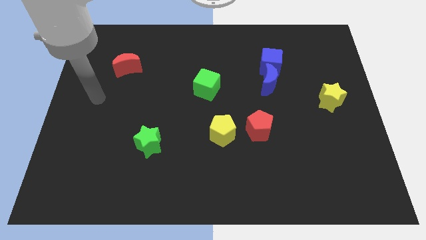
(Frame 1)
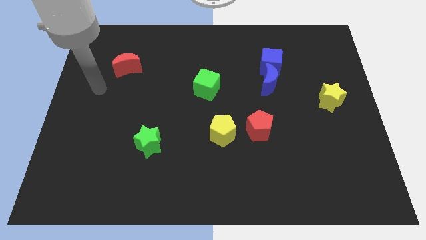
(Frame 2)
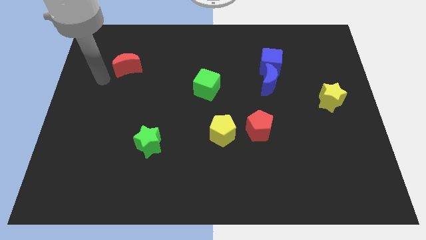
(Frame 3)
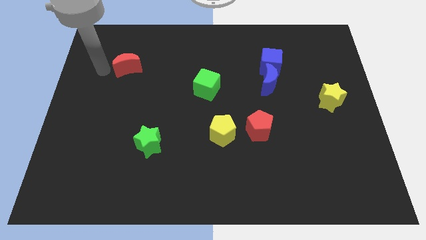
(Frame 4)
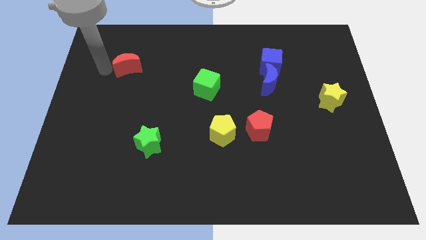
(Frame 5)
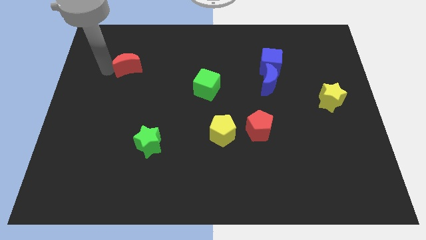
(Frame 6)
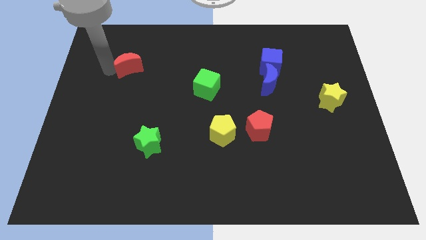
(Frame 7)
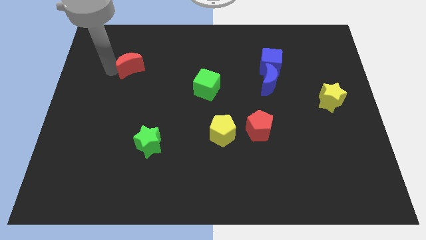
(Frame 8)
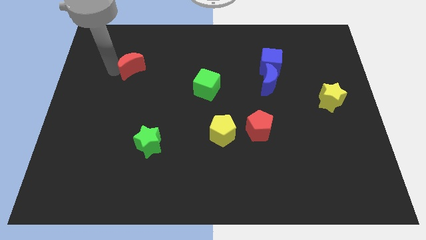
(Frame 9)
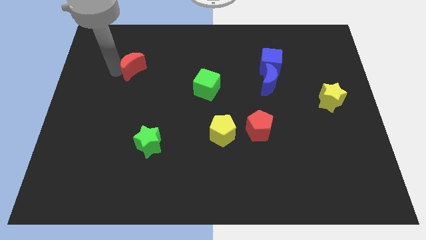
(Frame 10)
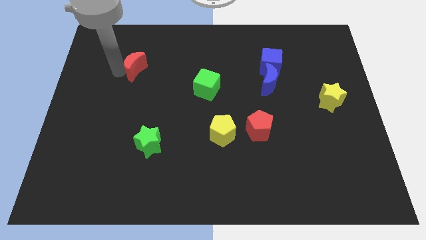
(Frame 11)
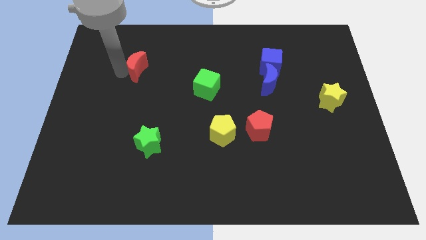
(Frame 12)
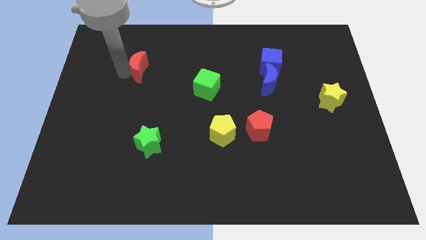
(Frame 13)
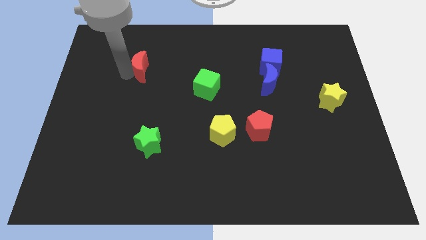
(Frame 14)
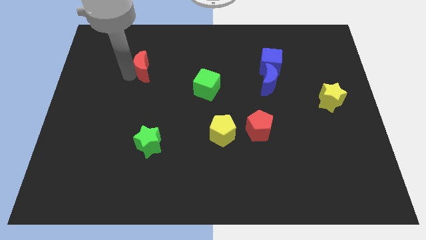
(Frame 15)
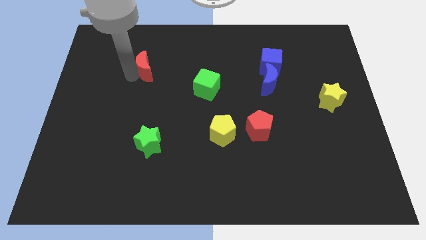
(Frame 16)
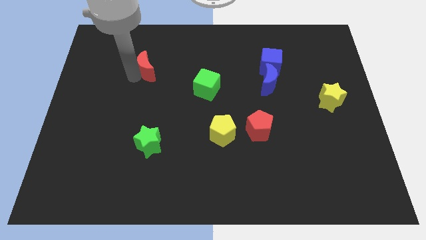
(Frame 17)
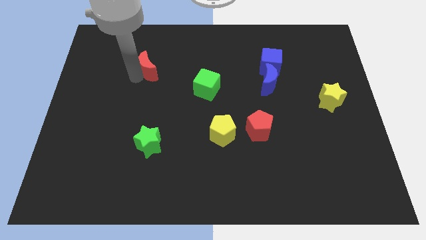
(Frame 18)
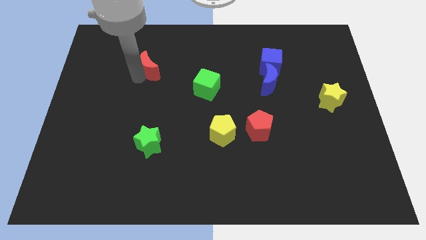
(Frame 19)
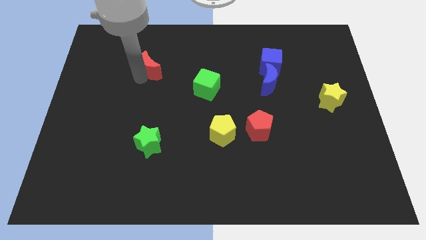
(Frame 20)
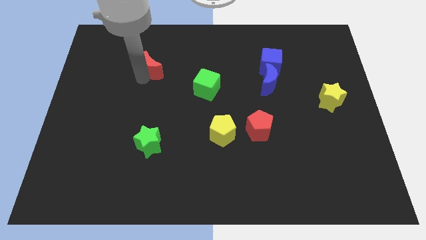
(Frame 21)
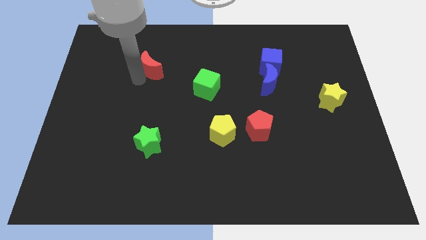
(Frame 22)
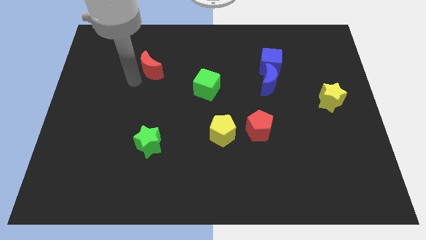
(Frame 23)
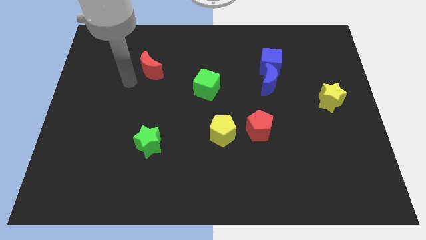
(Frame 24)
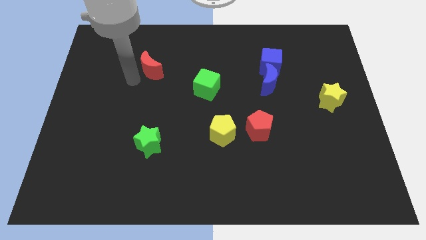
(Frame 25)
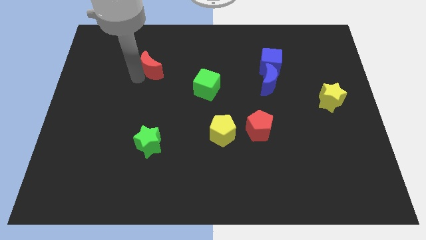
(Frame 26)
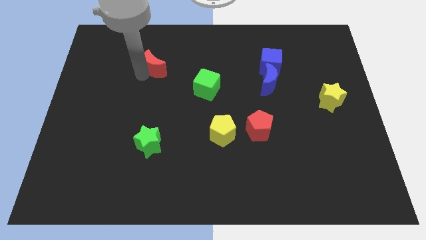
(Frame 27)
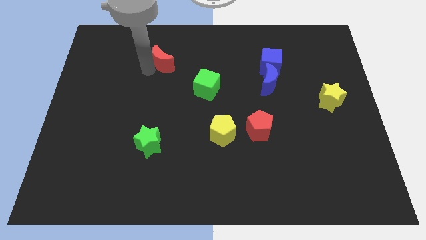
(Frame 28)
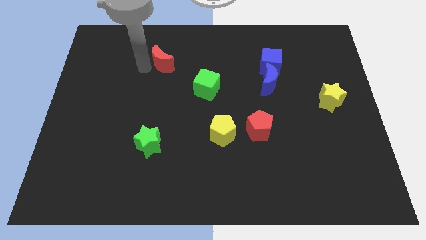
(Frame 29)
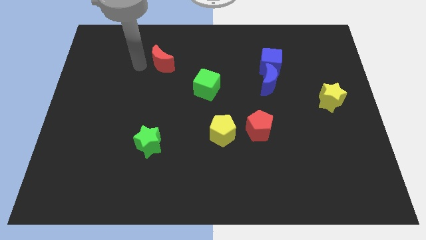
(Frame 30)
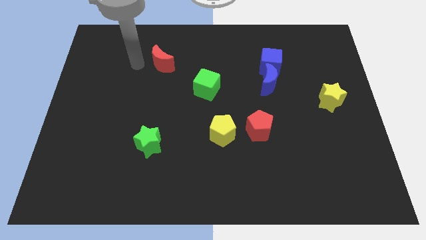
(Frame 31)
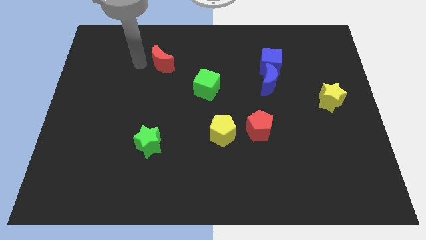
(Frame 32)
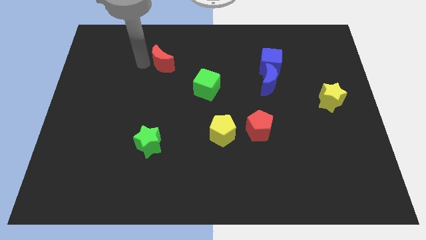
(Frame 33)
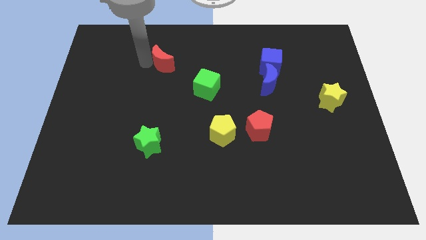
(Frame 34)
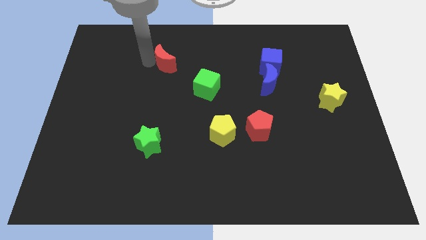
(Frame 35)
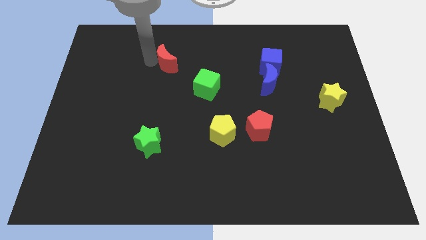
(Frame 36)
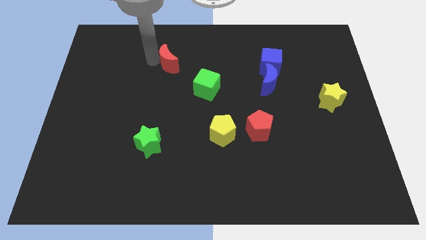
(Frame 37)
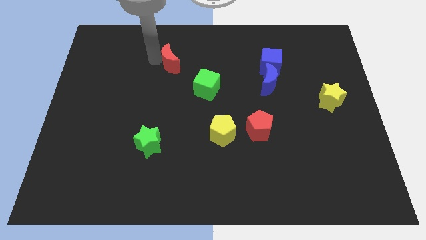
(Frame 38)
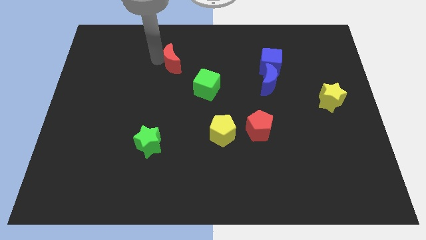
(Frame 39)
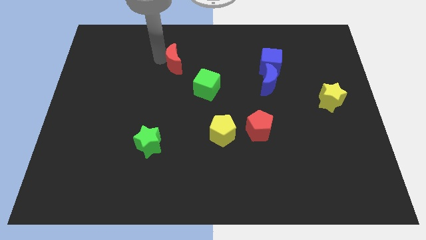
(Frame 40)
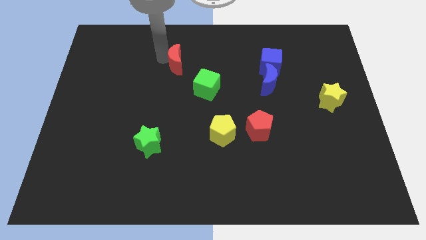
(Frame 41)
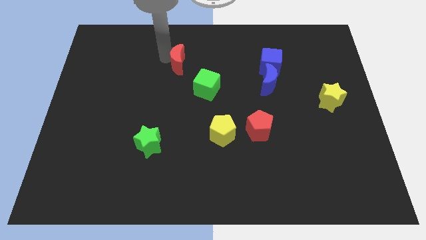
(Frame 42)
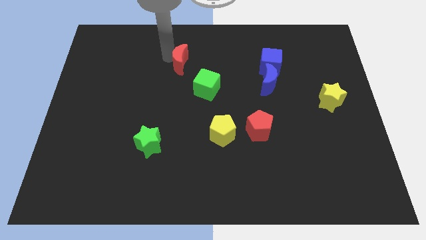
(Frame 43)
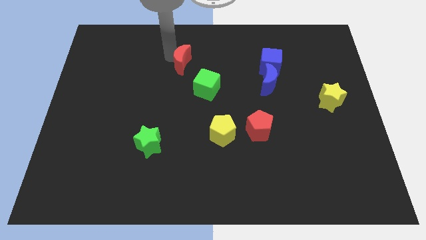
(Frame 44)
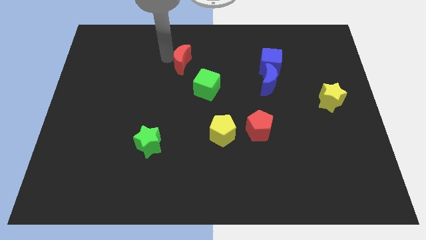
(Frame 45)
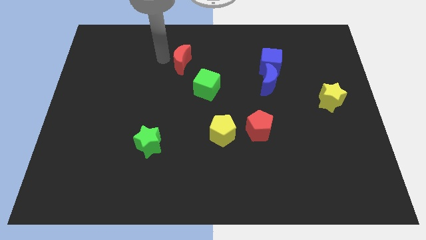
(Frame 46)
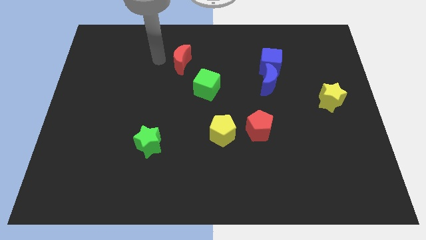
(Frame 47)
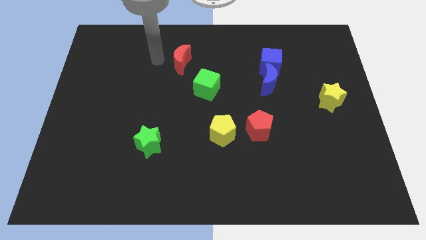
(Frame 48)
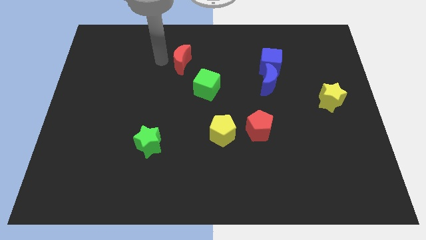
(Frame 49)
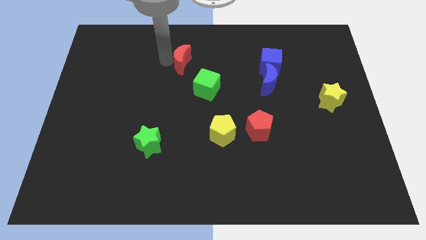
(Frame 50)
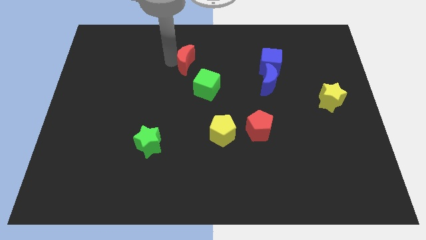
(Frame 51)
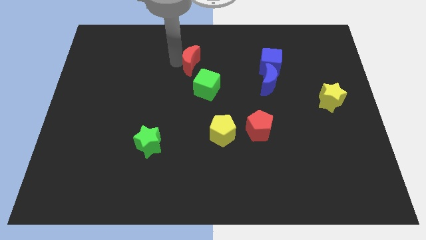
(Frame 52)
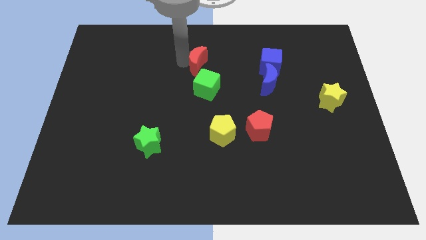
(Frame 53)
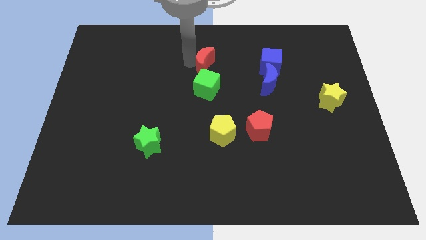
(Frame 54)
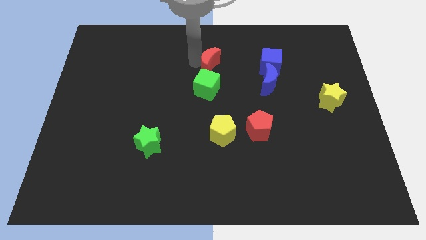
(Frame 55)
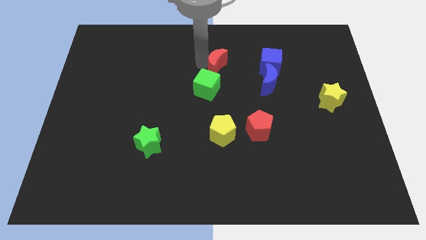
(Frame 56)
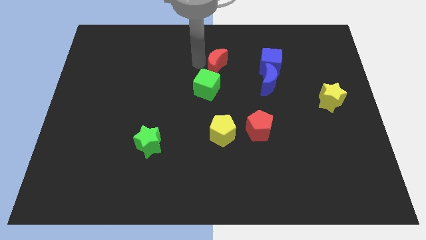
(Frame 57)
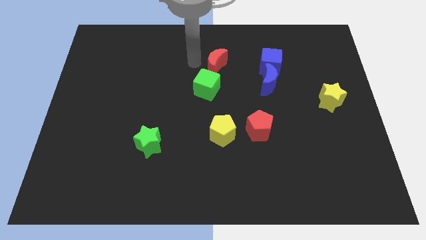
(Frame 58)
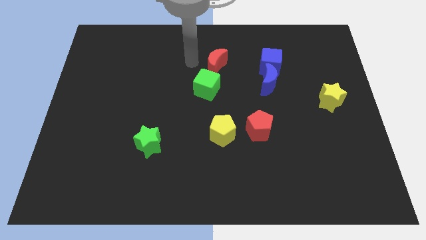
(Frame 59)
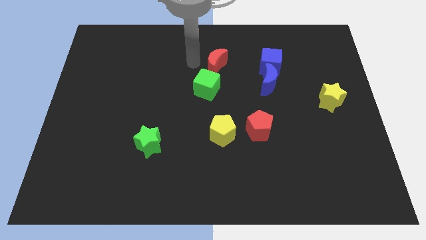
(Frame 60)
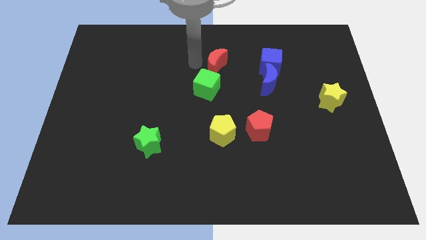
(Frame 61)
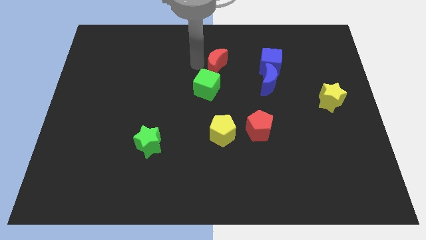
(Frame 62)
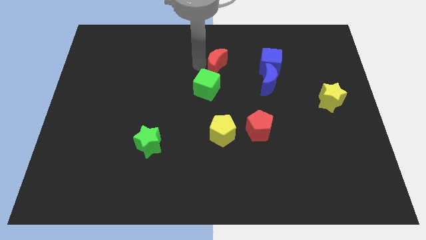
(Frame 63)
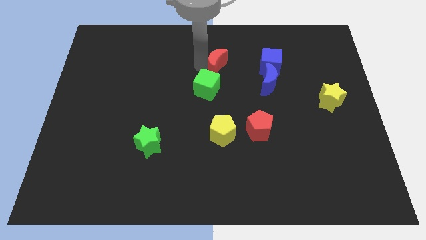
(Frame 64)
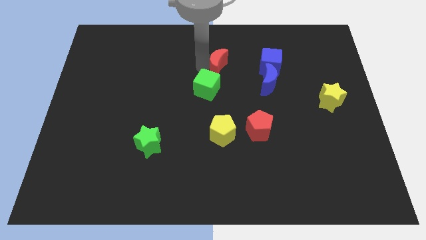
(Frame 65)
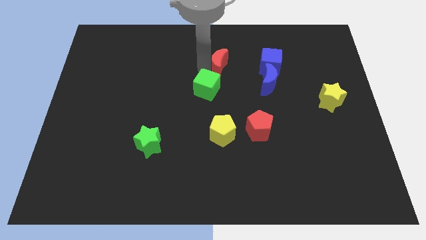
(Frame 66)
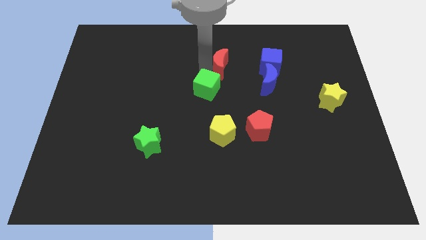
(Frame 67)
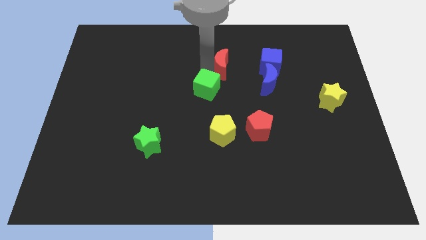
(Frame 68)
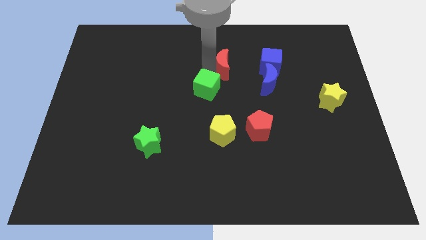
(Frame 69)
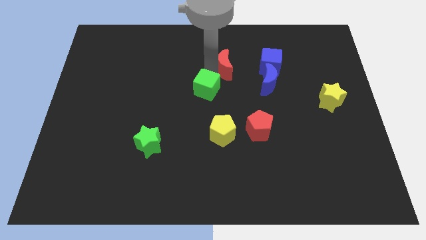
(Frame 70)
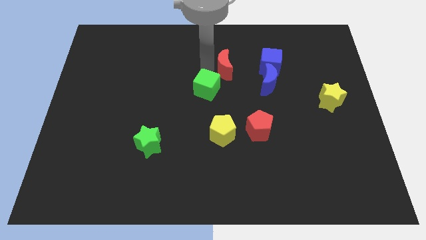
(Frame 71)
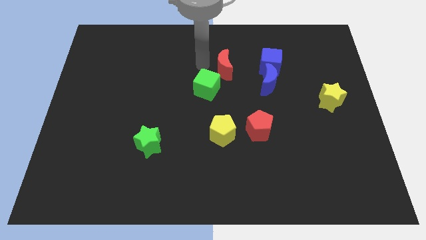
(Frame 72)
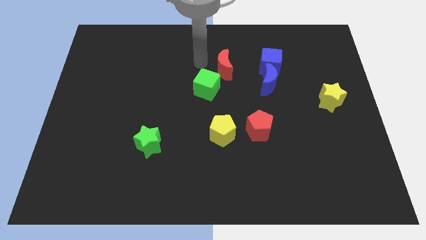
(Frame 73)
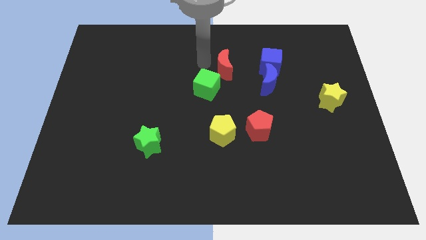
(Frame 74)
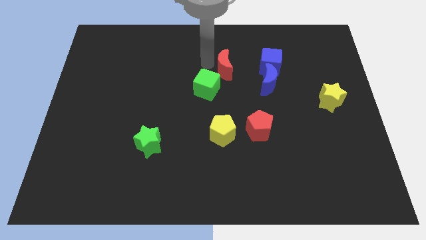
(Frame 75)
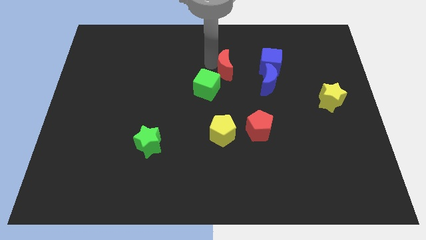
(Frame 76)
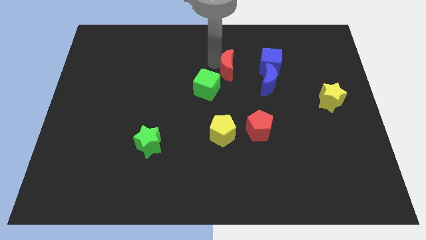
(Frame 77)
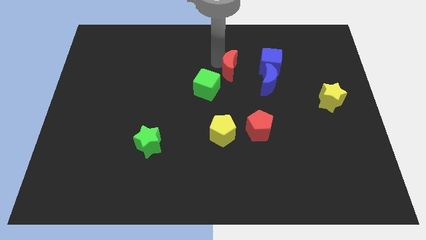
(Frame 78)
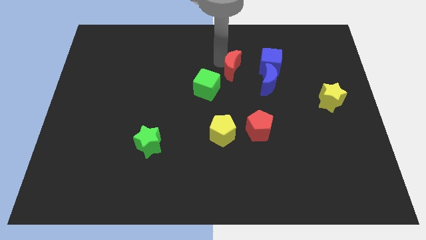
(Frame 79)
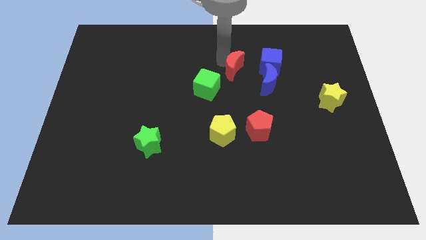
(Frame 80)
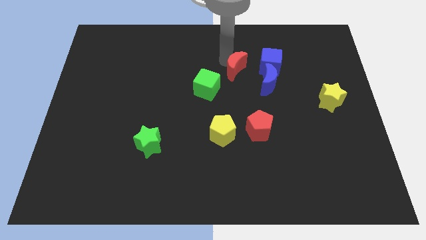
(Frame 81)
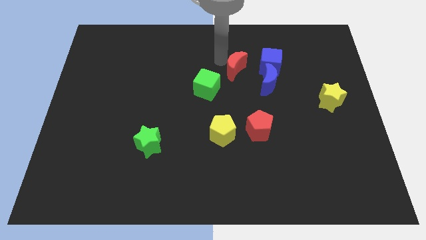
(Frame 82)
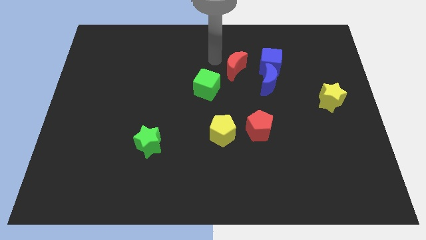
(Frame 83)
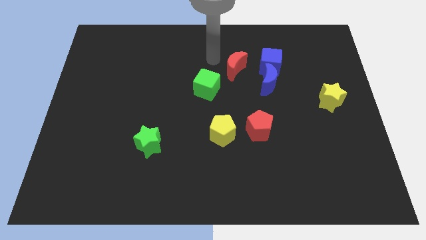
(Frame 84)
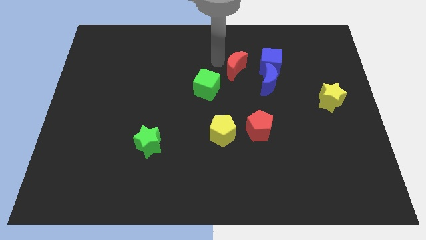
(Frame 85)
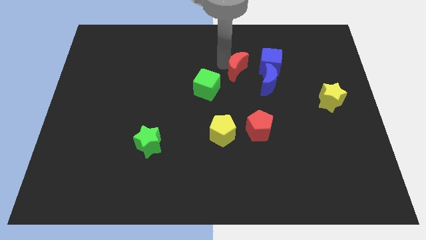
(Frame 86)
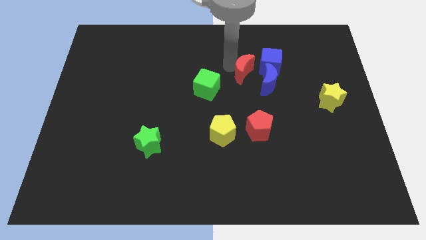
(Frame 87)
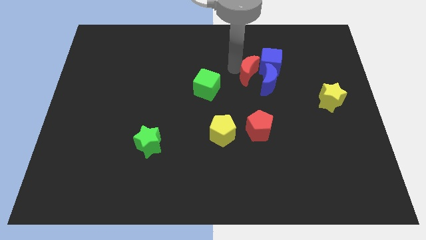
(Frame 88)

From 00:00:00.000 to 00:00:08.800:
slide the red moon towards the blue moon
